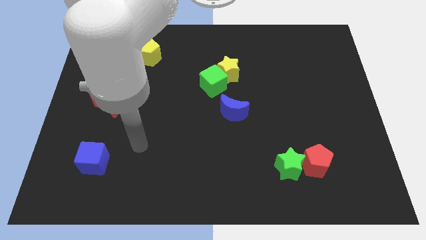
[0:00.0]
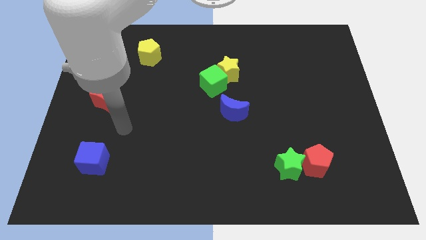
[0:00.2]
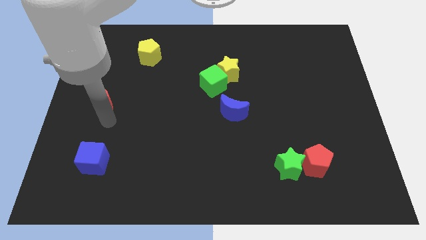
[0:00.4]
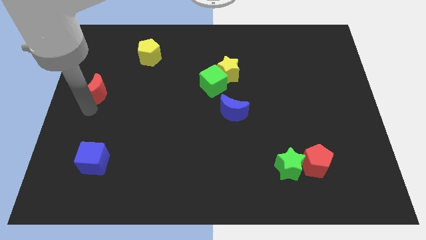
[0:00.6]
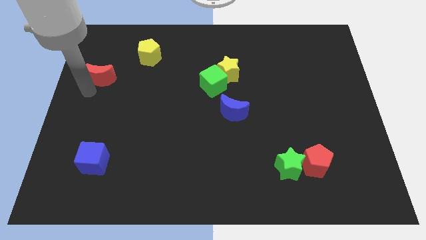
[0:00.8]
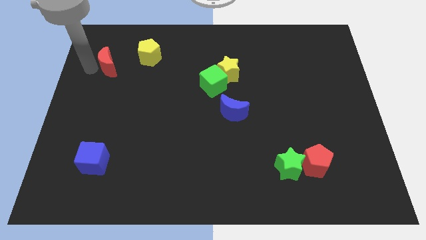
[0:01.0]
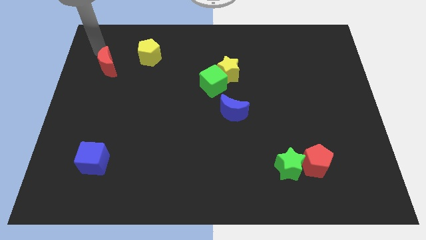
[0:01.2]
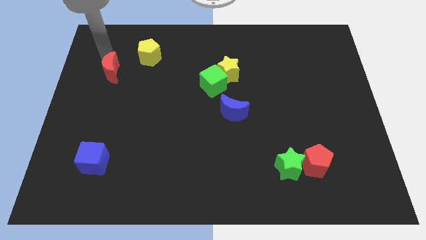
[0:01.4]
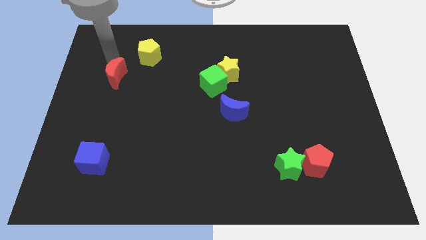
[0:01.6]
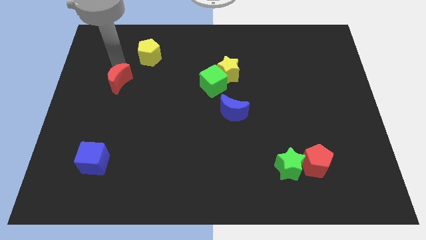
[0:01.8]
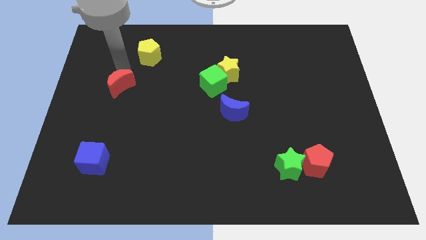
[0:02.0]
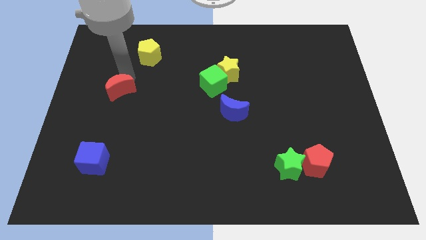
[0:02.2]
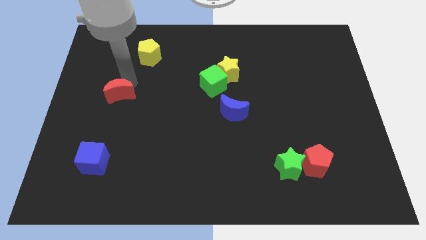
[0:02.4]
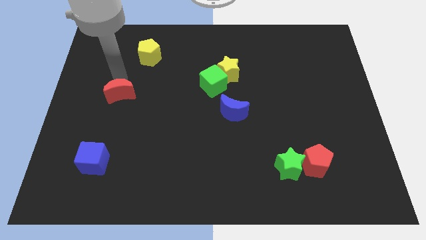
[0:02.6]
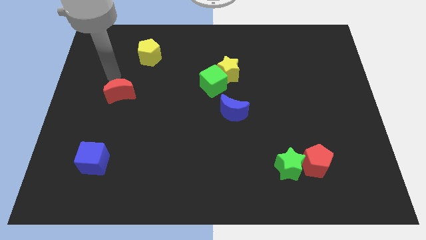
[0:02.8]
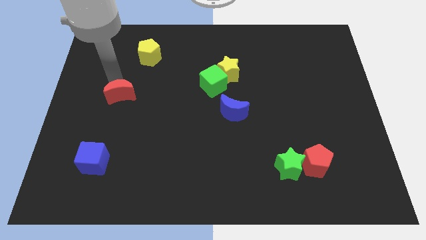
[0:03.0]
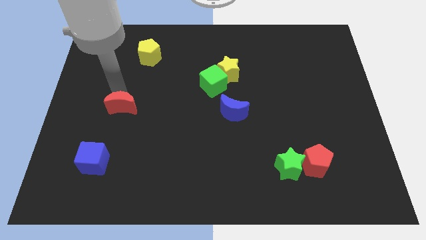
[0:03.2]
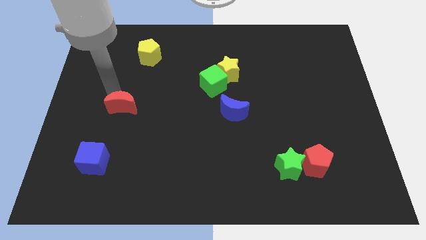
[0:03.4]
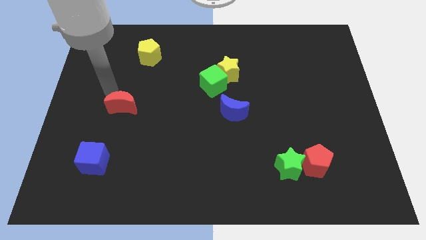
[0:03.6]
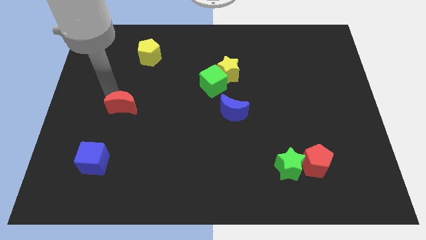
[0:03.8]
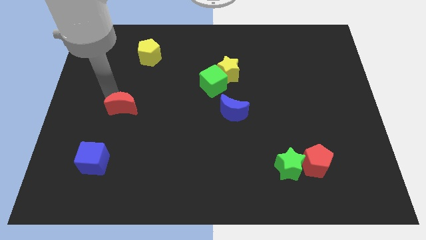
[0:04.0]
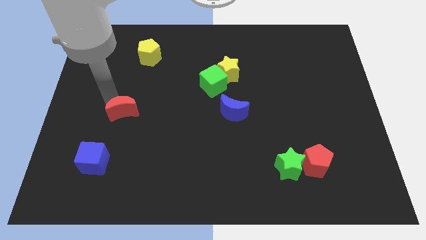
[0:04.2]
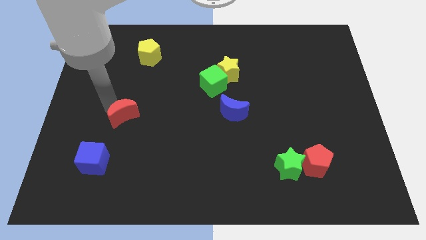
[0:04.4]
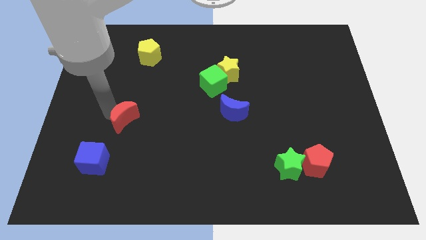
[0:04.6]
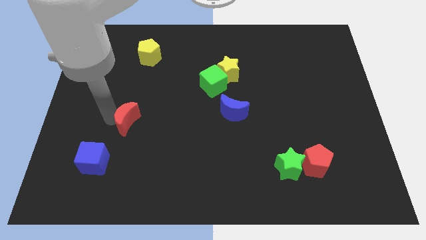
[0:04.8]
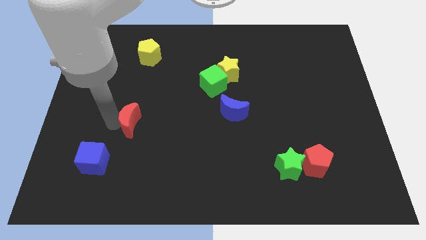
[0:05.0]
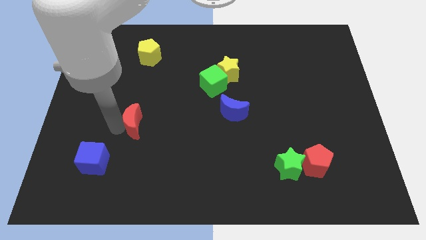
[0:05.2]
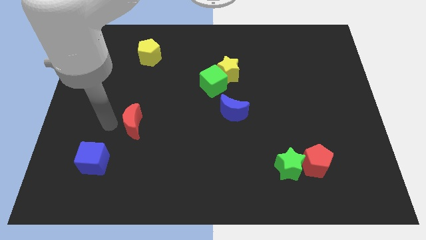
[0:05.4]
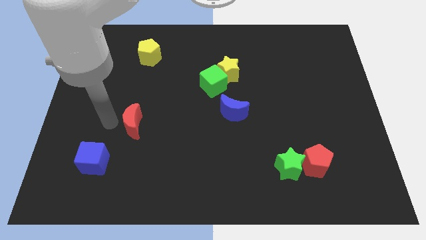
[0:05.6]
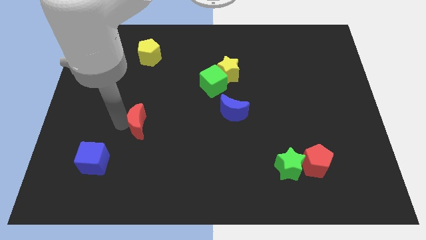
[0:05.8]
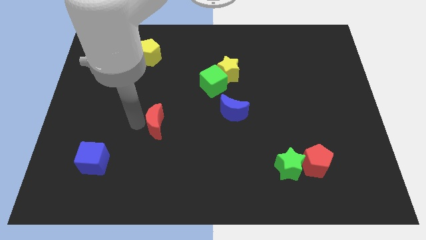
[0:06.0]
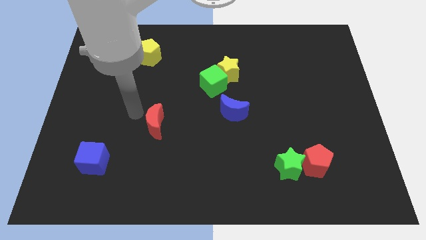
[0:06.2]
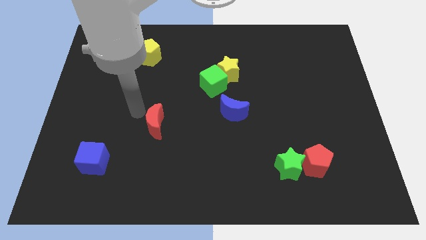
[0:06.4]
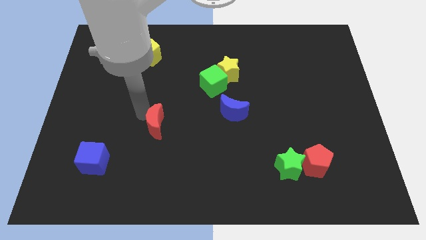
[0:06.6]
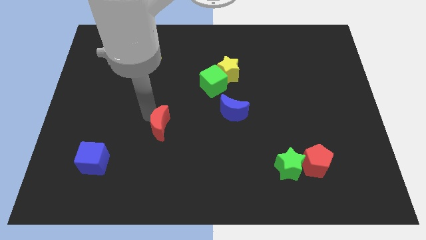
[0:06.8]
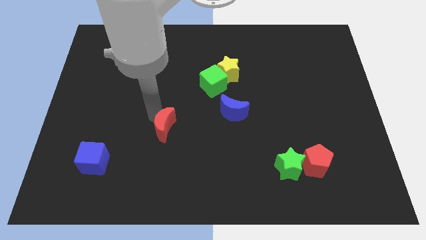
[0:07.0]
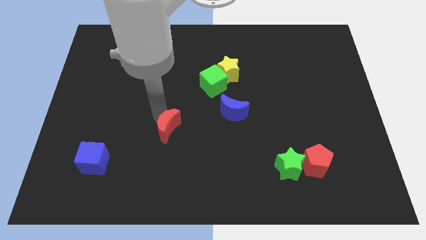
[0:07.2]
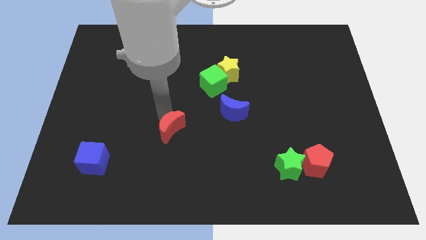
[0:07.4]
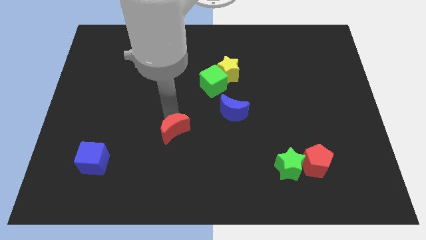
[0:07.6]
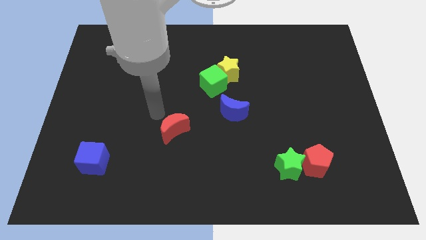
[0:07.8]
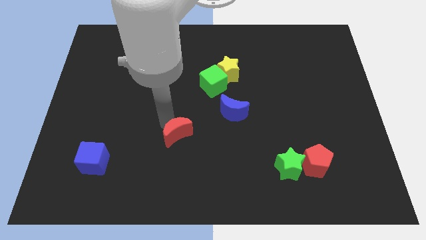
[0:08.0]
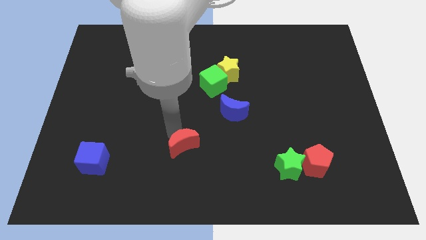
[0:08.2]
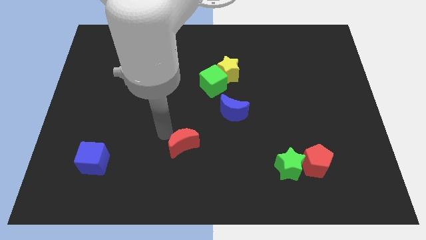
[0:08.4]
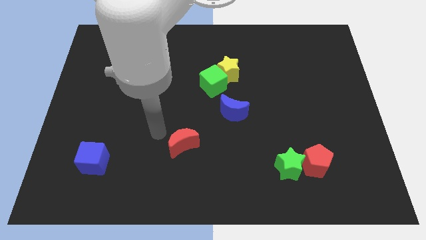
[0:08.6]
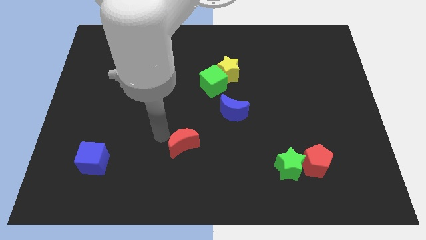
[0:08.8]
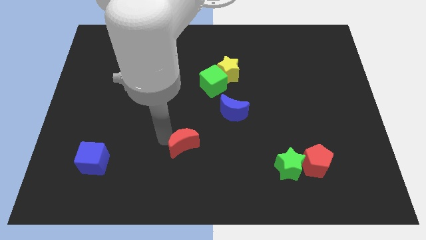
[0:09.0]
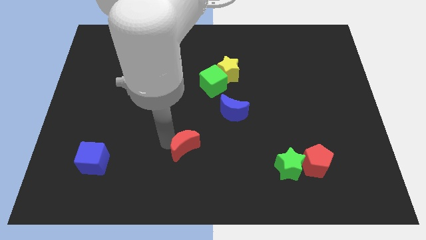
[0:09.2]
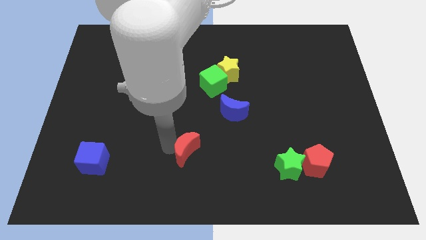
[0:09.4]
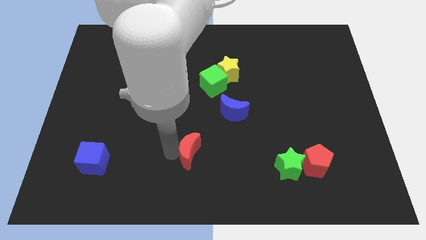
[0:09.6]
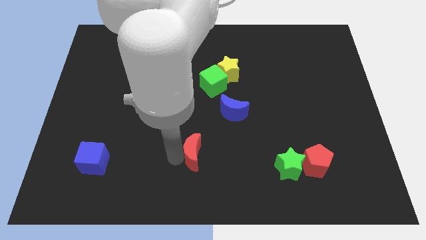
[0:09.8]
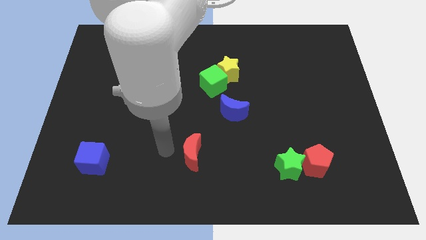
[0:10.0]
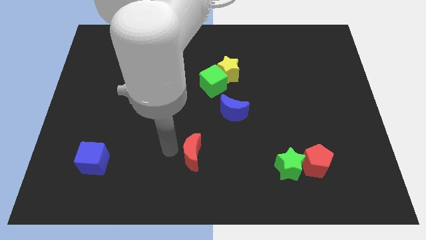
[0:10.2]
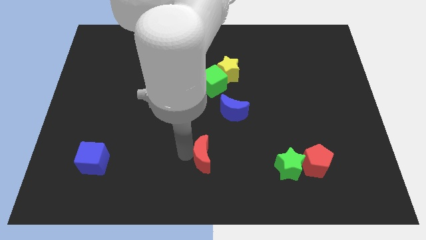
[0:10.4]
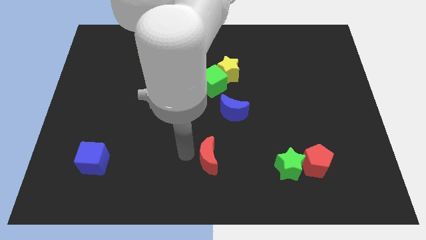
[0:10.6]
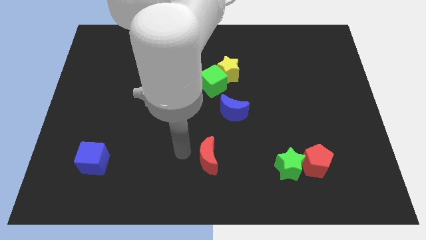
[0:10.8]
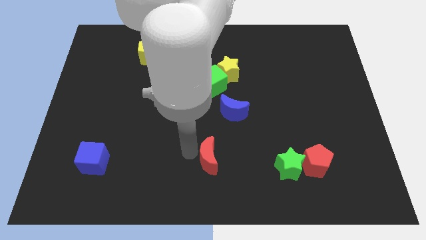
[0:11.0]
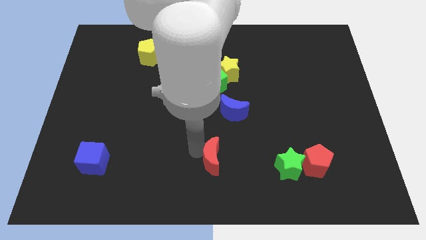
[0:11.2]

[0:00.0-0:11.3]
move the red moon just left of the green star

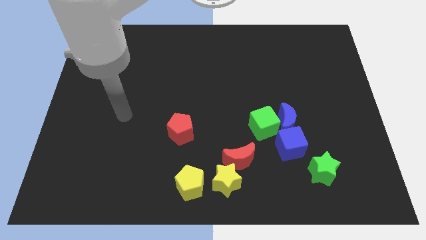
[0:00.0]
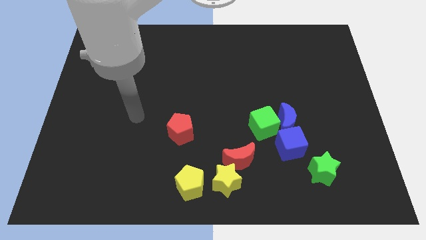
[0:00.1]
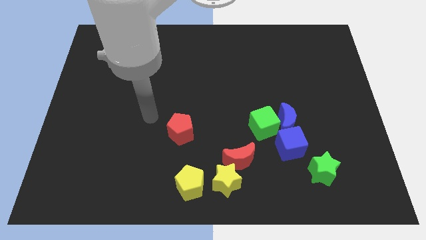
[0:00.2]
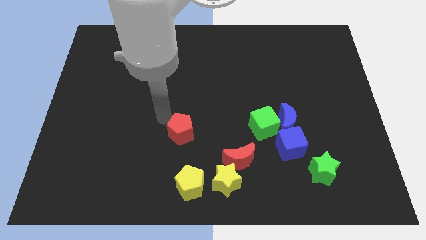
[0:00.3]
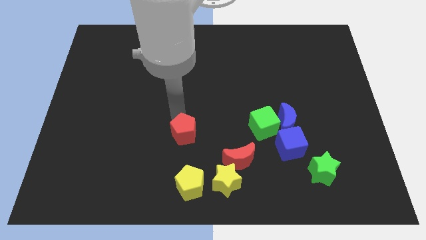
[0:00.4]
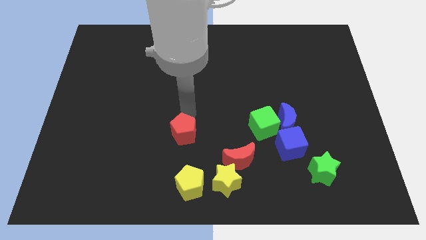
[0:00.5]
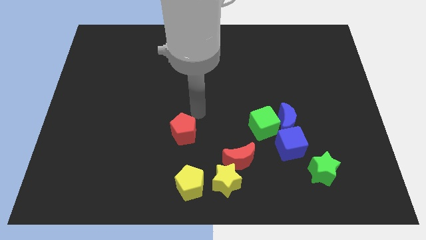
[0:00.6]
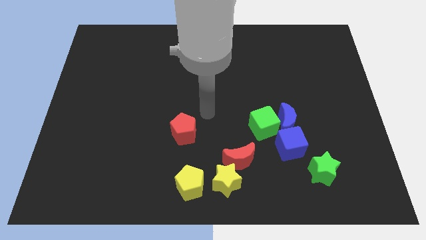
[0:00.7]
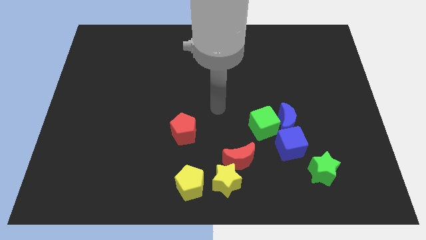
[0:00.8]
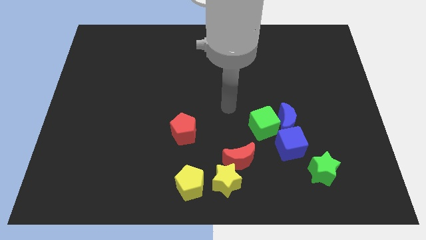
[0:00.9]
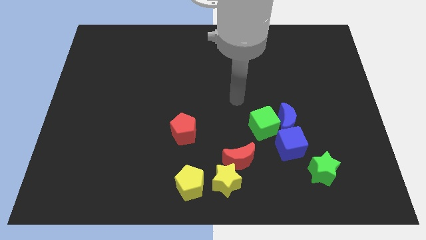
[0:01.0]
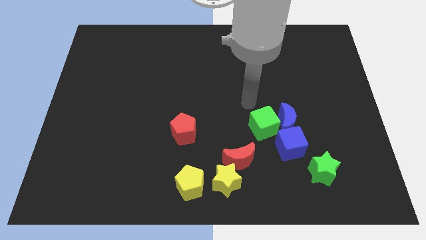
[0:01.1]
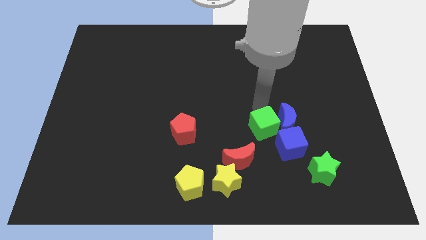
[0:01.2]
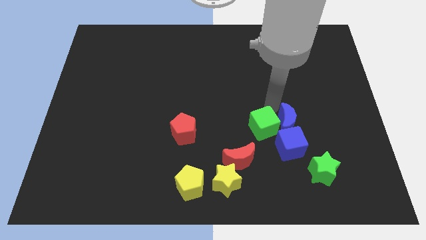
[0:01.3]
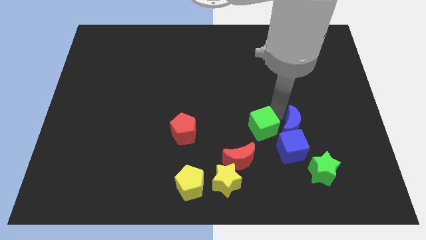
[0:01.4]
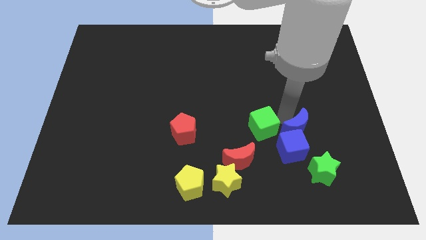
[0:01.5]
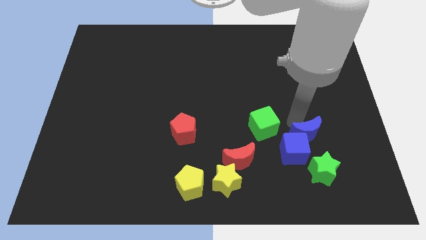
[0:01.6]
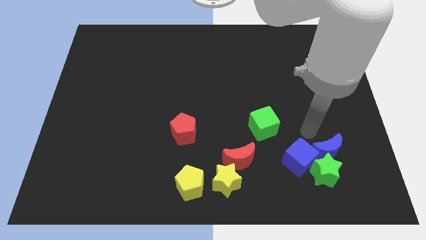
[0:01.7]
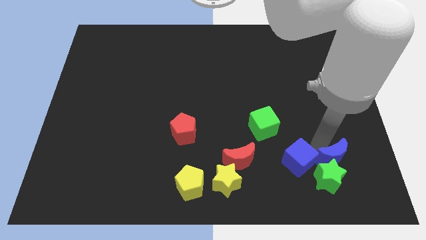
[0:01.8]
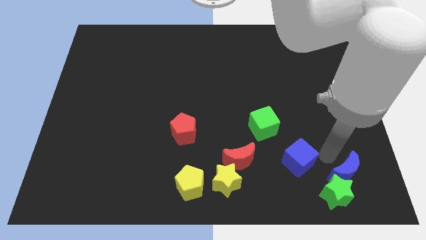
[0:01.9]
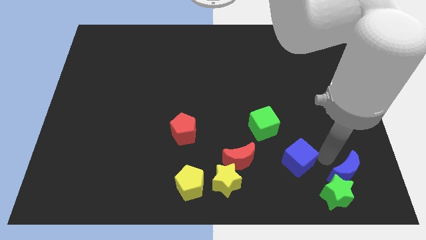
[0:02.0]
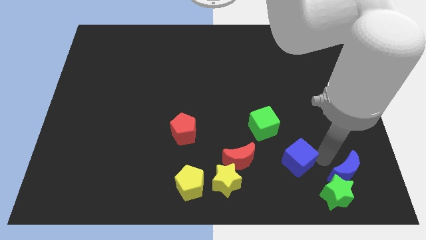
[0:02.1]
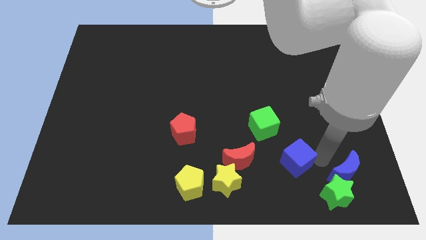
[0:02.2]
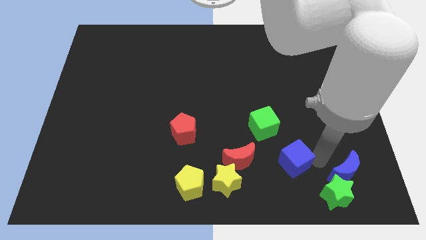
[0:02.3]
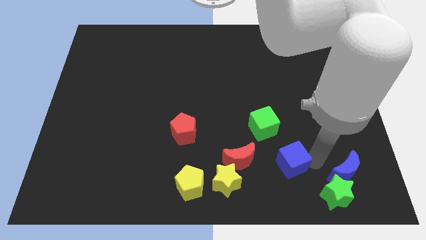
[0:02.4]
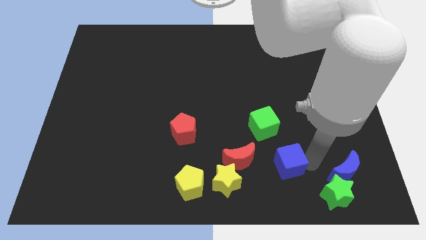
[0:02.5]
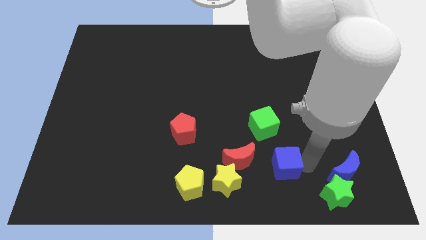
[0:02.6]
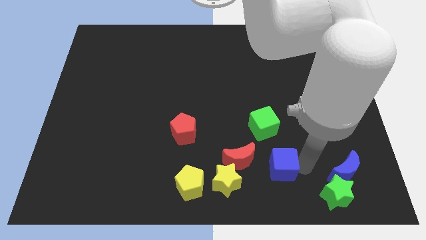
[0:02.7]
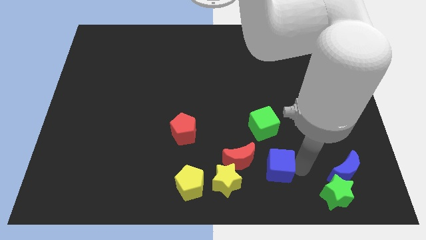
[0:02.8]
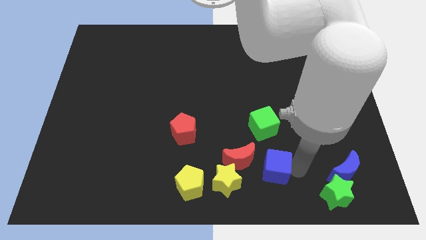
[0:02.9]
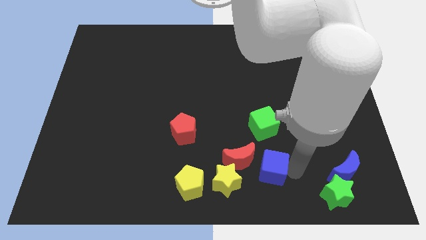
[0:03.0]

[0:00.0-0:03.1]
push the blue cube diagonally up and to the right of the yellow star
